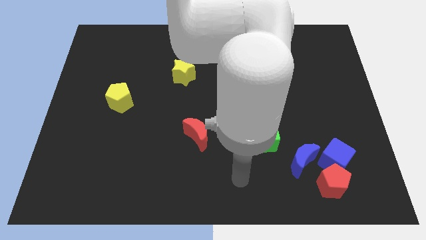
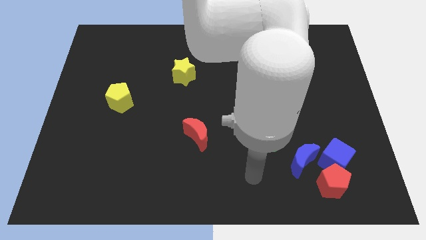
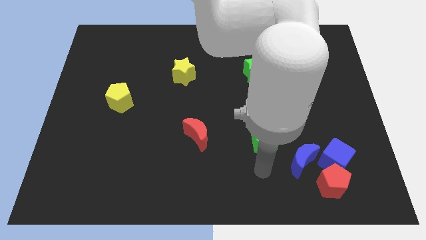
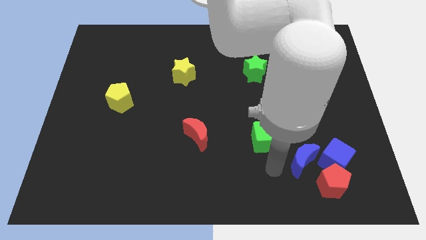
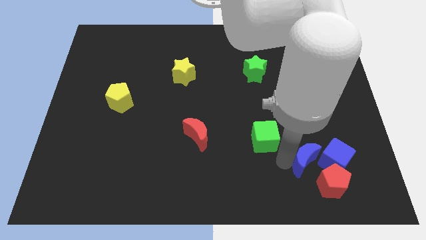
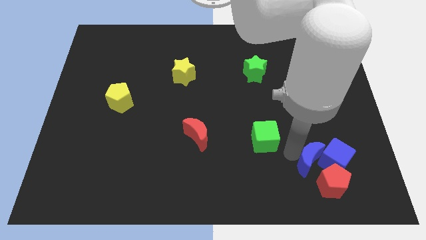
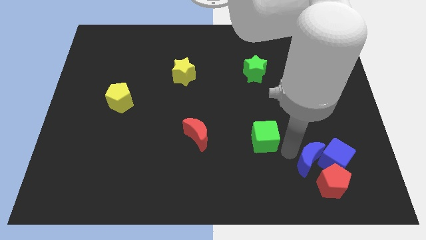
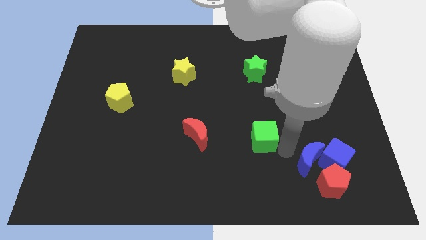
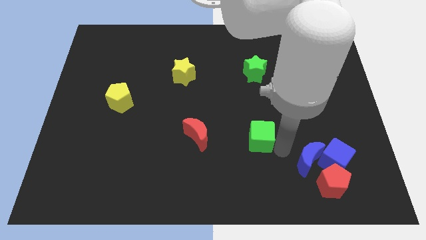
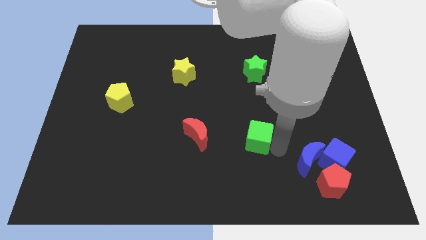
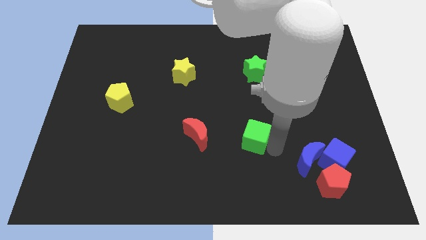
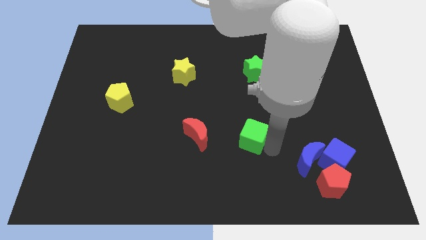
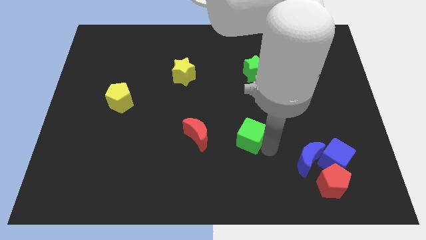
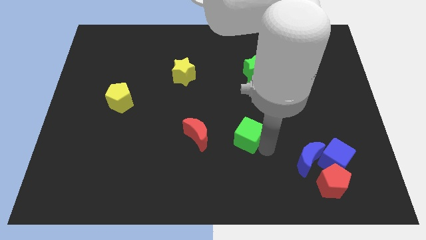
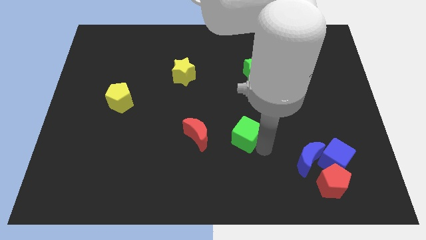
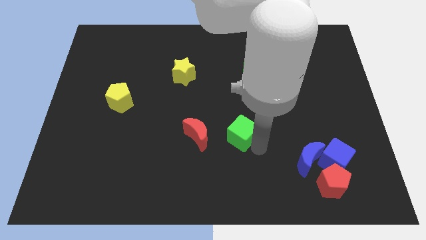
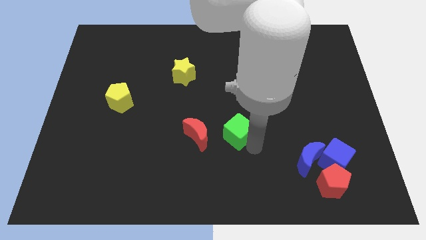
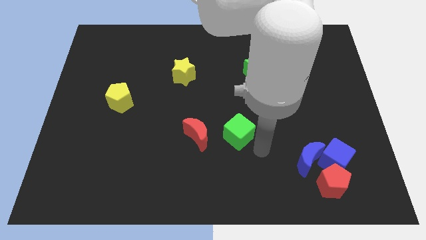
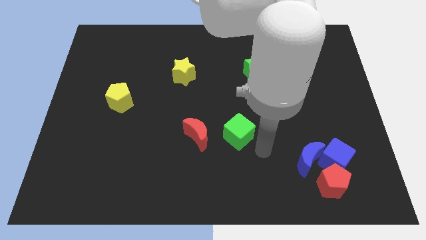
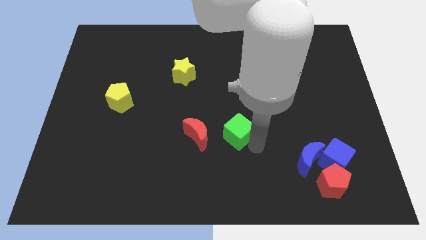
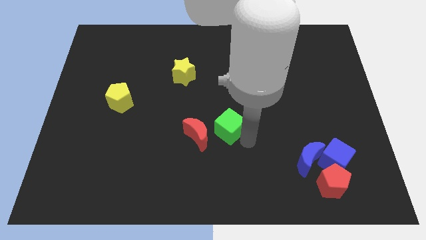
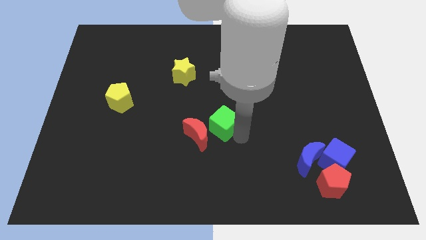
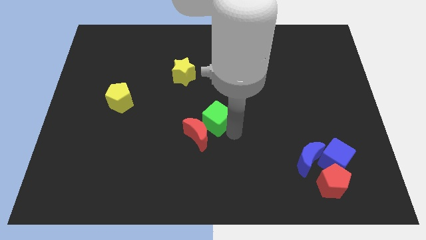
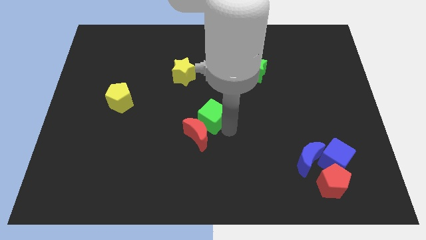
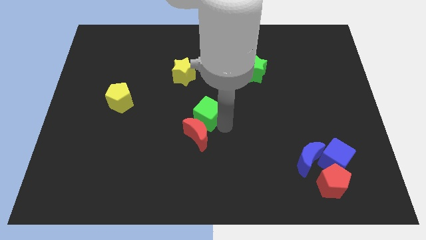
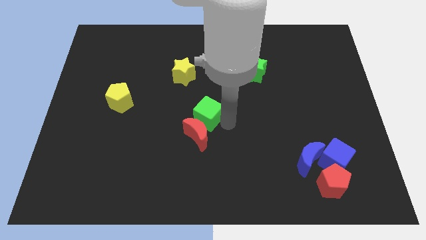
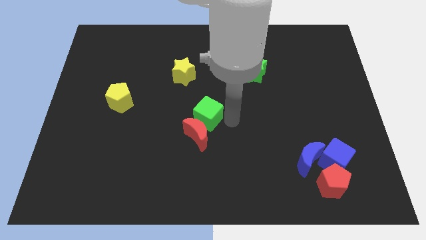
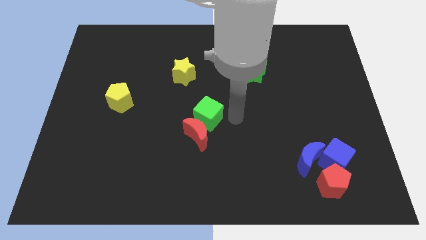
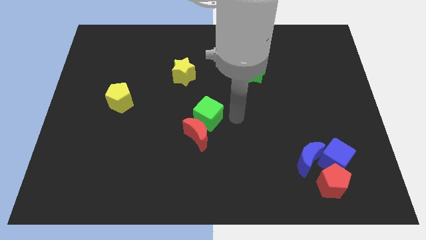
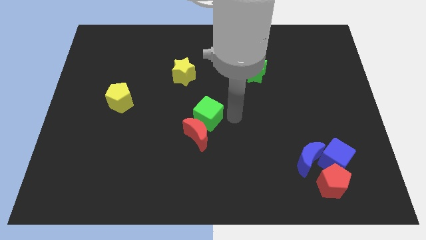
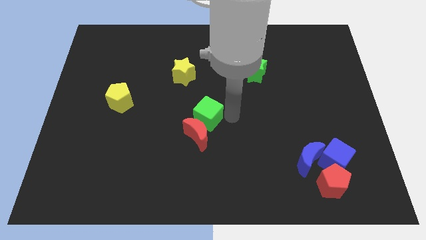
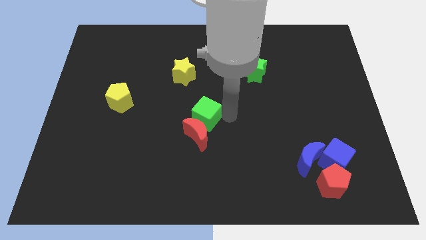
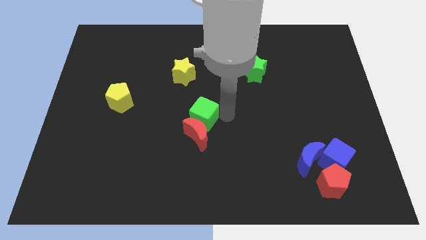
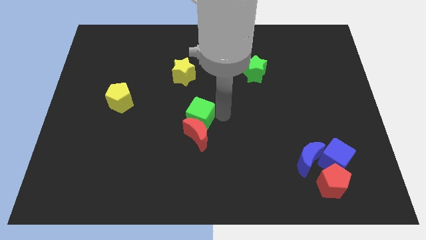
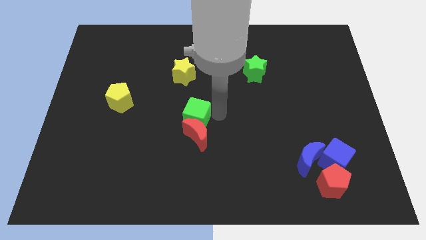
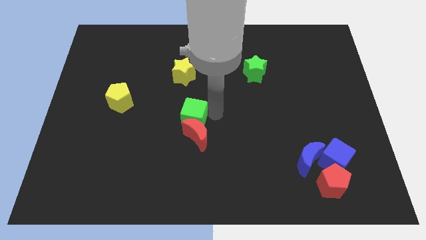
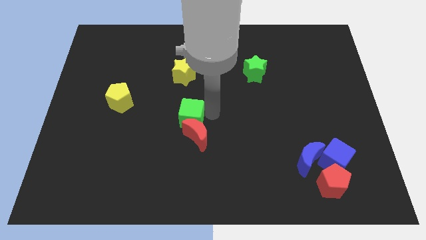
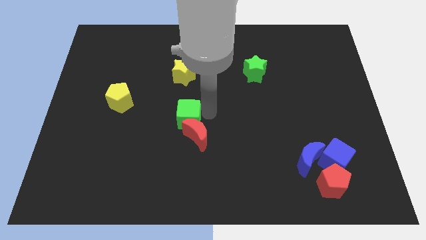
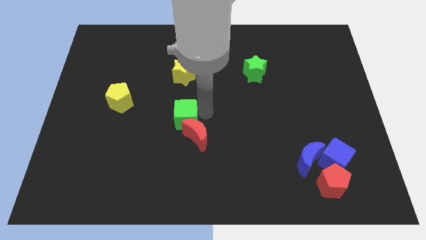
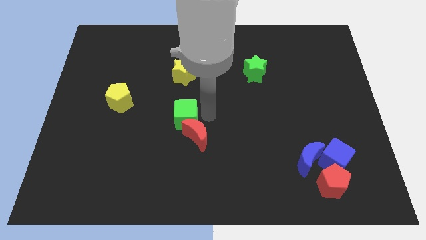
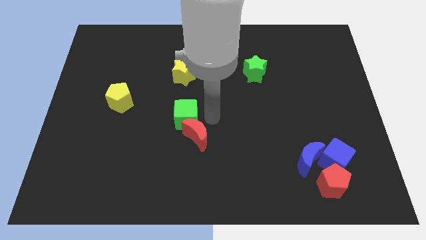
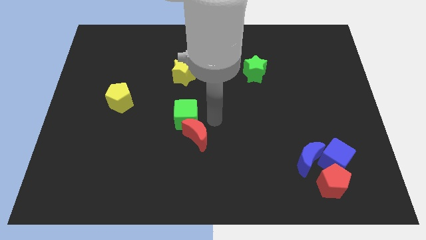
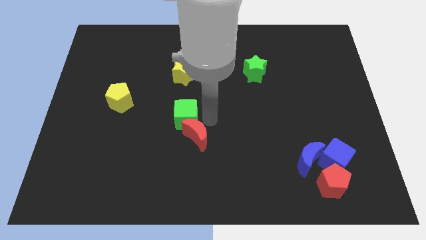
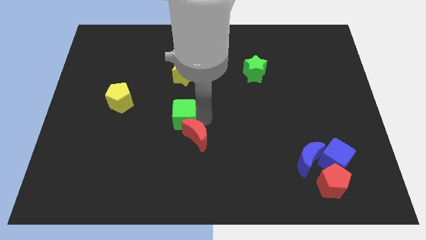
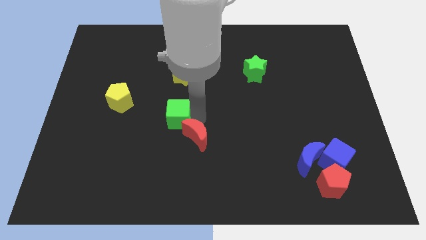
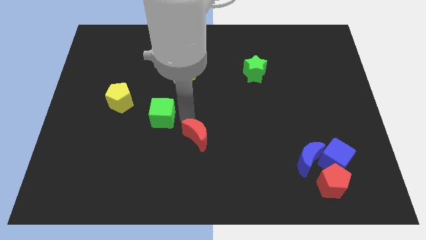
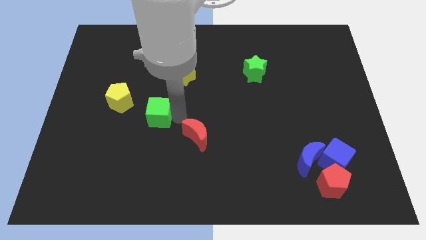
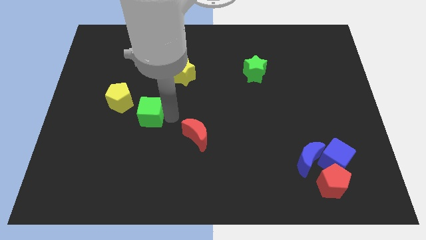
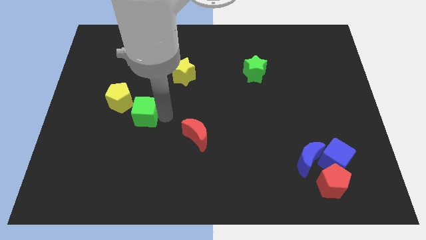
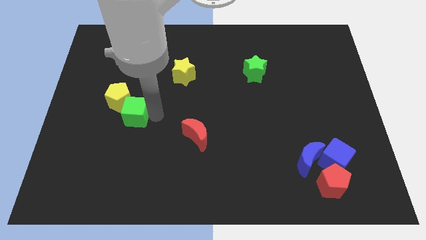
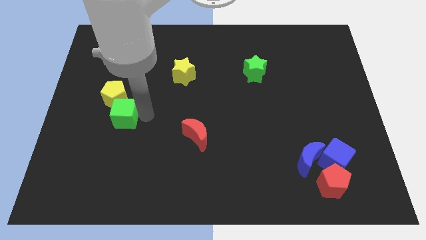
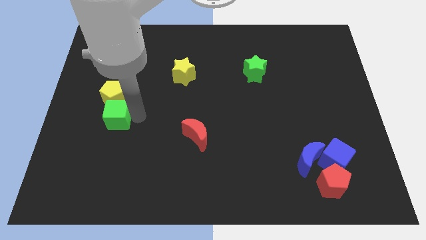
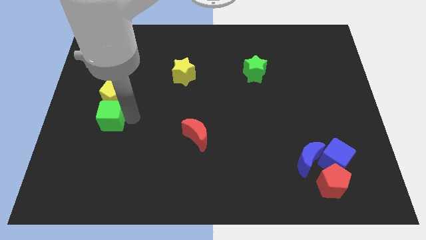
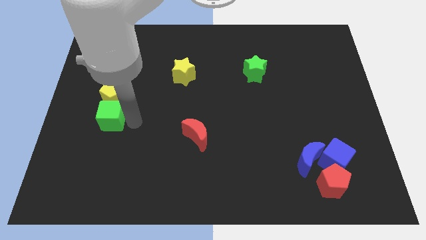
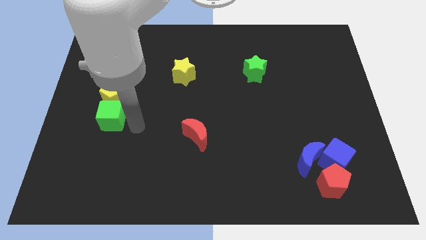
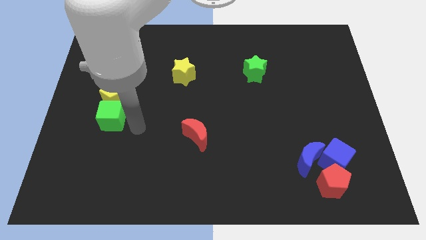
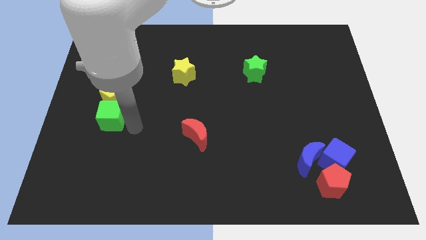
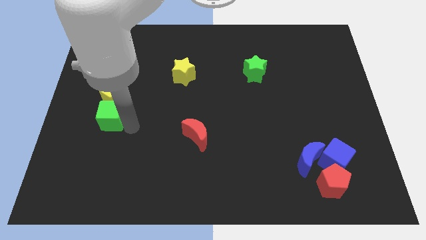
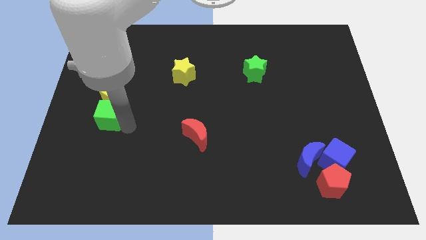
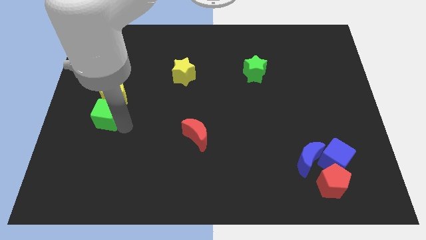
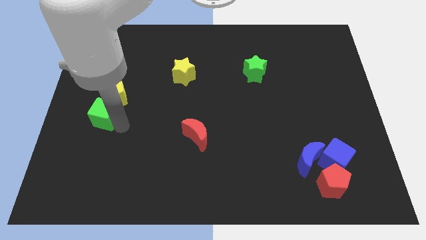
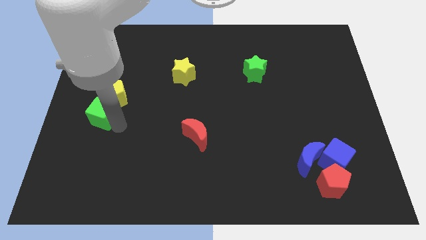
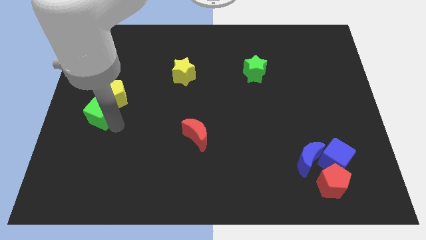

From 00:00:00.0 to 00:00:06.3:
slide the green cube to the center left

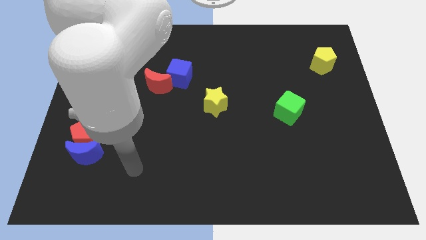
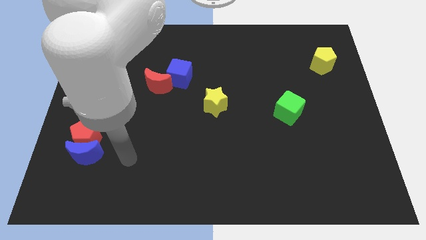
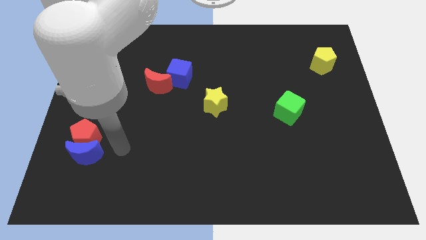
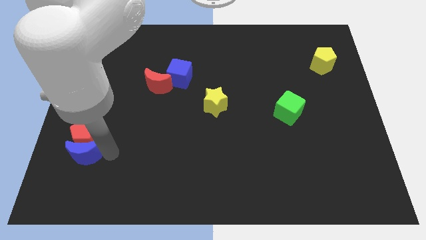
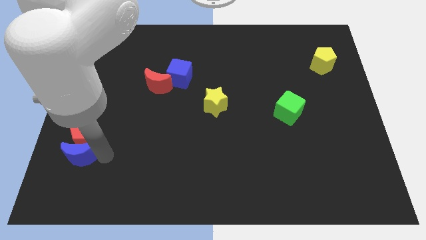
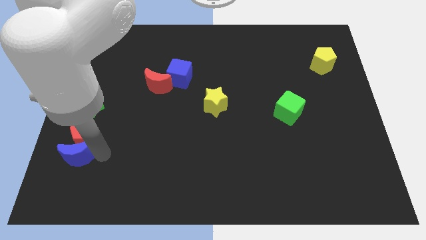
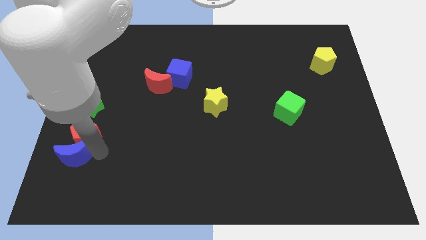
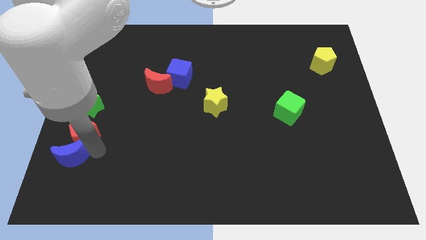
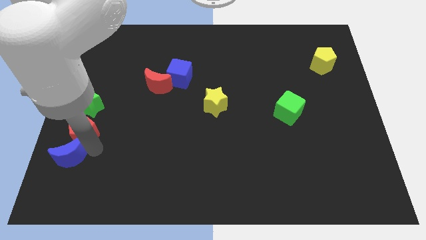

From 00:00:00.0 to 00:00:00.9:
move the red pentagon to the left side of the board
